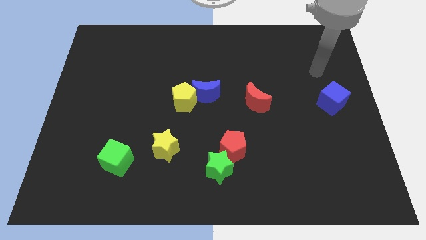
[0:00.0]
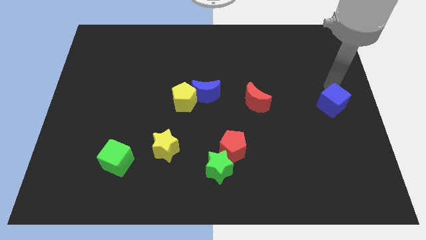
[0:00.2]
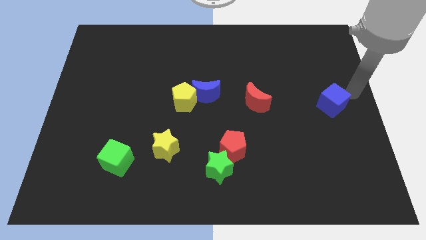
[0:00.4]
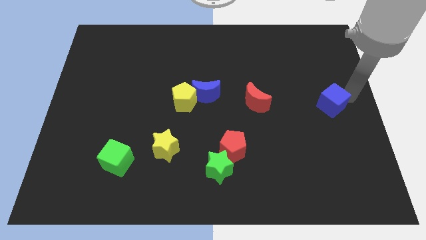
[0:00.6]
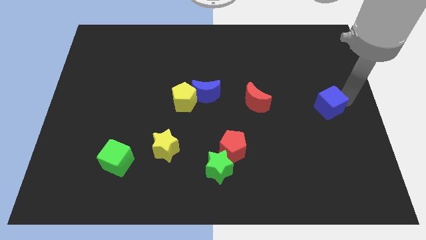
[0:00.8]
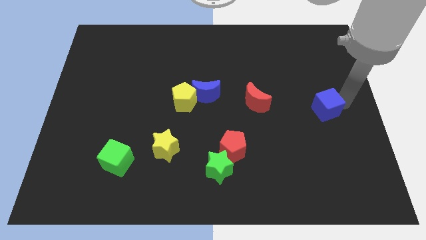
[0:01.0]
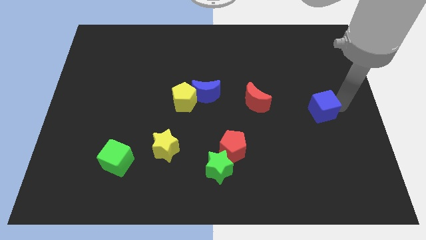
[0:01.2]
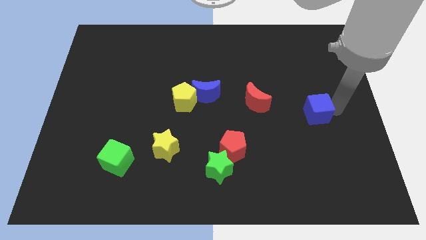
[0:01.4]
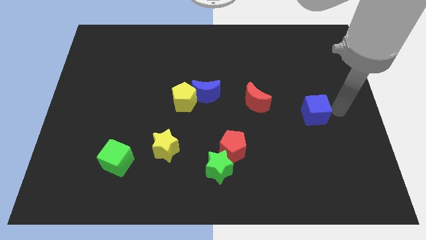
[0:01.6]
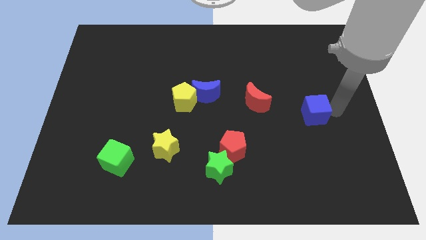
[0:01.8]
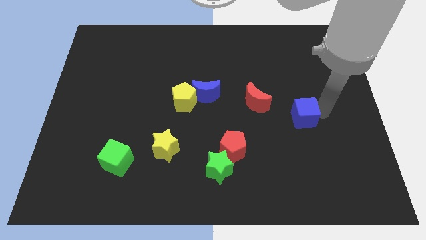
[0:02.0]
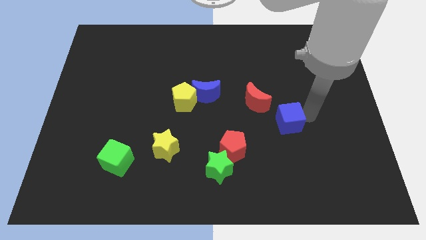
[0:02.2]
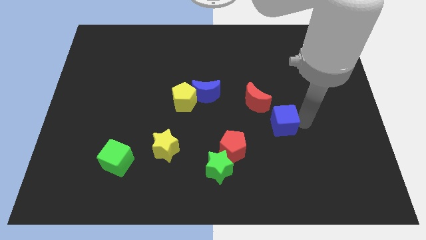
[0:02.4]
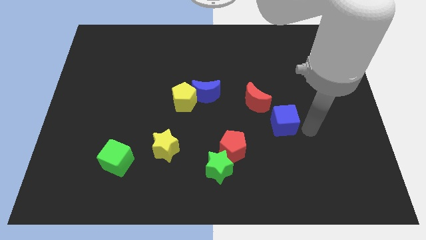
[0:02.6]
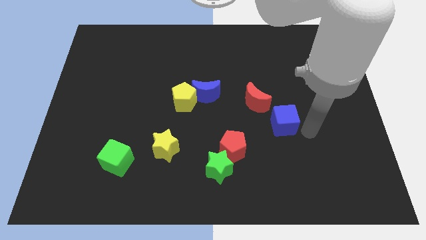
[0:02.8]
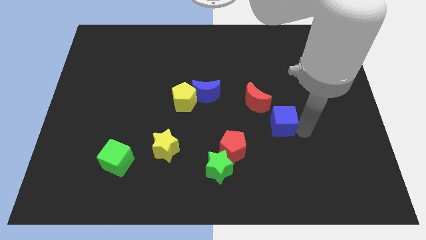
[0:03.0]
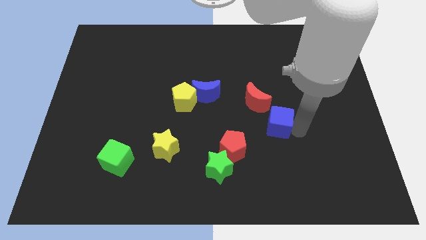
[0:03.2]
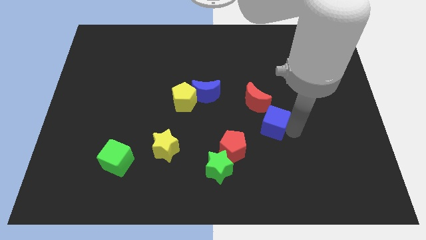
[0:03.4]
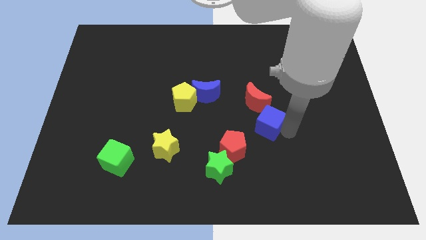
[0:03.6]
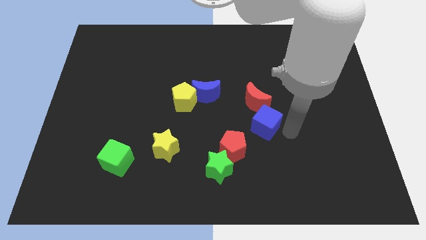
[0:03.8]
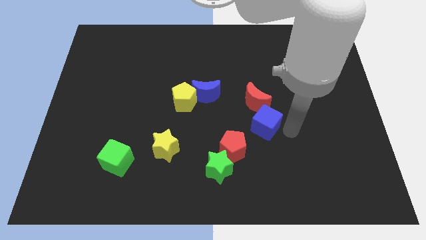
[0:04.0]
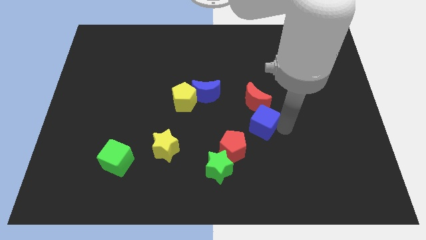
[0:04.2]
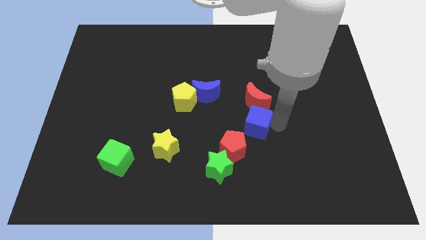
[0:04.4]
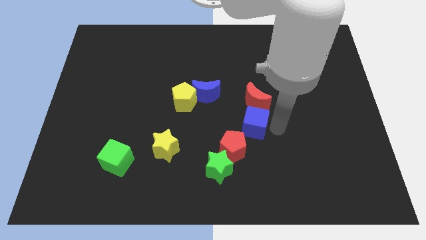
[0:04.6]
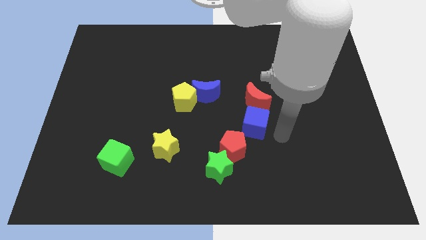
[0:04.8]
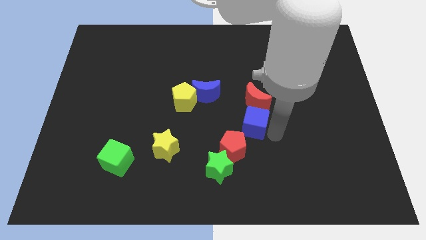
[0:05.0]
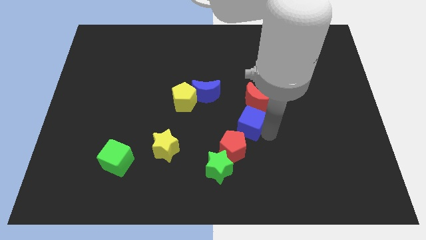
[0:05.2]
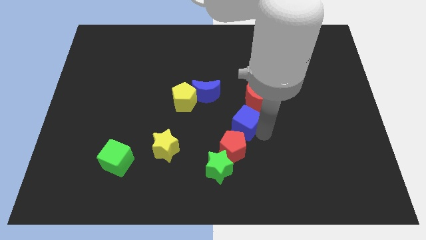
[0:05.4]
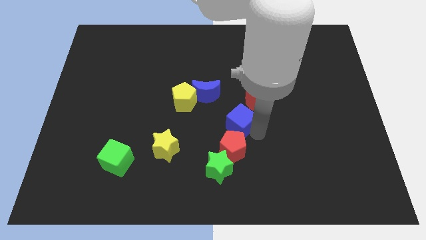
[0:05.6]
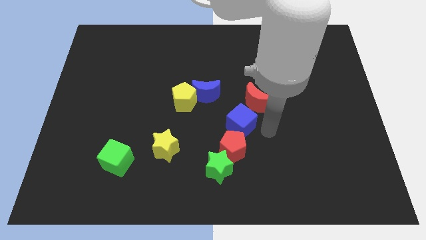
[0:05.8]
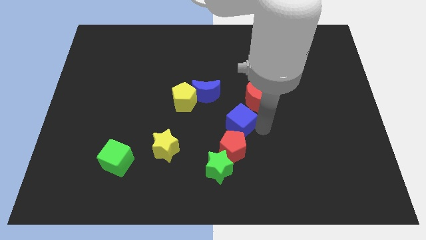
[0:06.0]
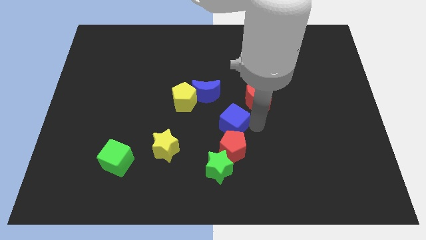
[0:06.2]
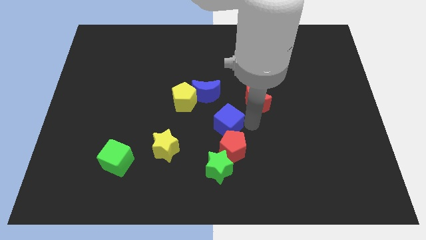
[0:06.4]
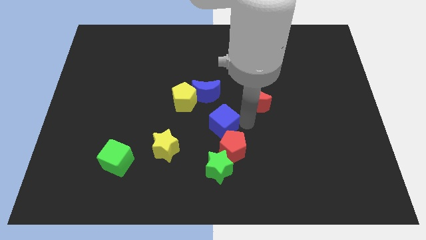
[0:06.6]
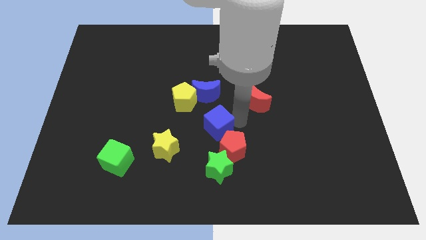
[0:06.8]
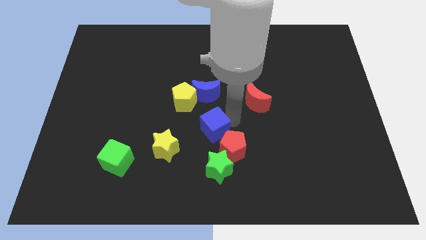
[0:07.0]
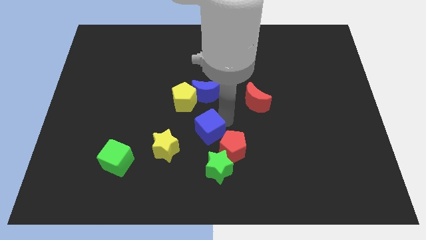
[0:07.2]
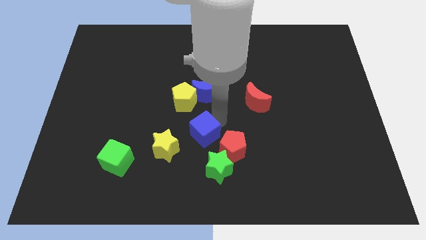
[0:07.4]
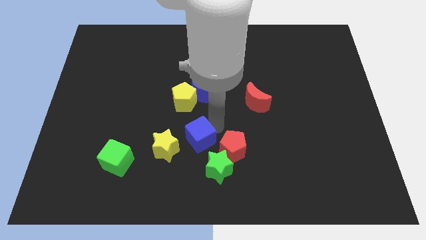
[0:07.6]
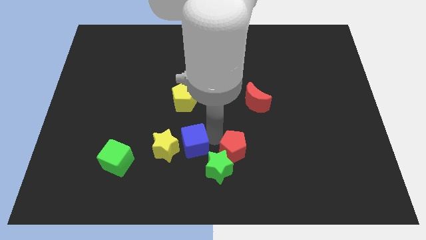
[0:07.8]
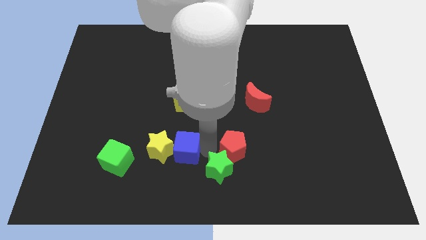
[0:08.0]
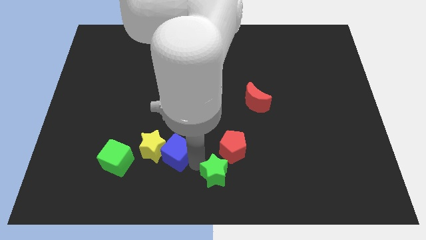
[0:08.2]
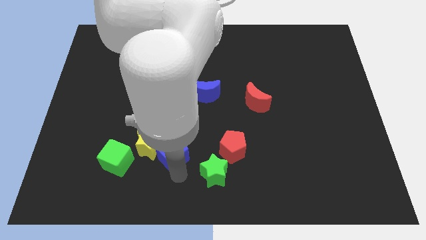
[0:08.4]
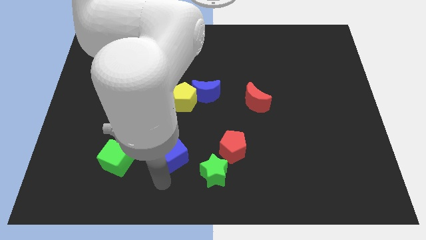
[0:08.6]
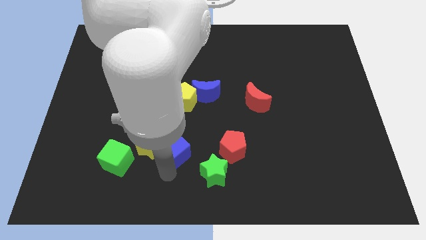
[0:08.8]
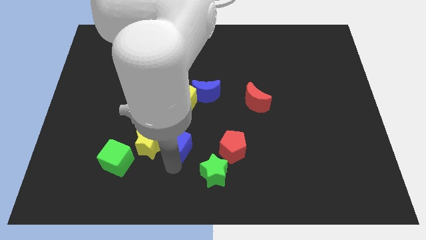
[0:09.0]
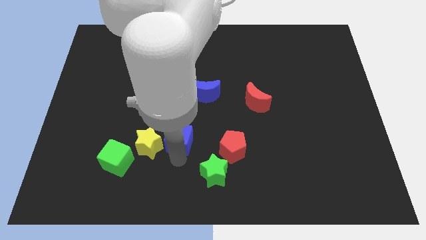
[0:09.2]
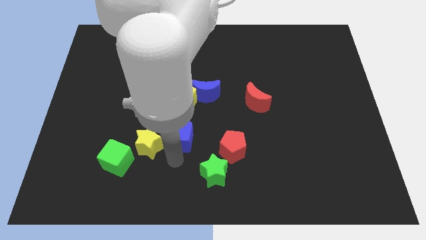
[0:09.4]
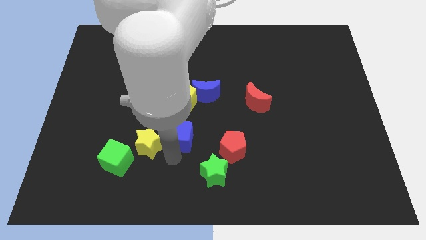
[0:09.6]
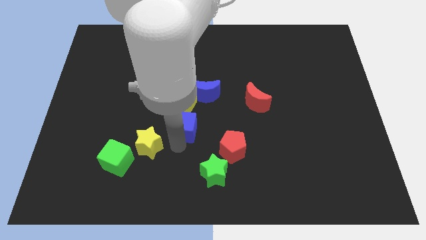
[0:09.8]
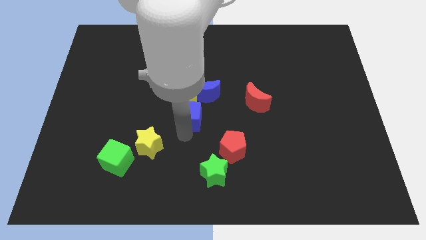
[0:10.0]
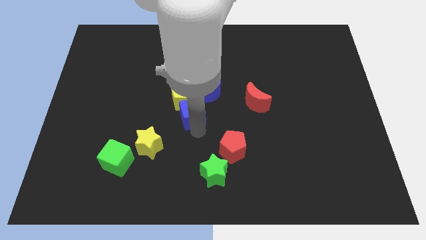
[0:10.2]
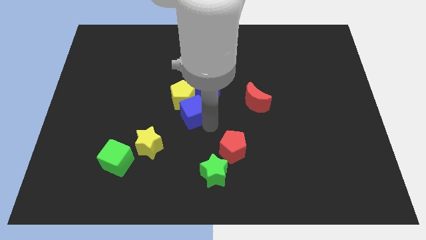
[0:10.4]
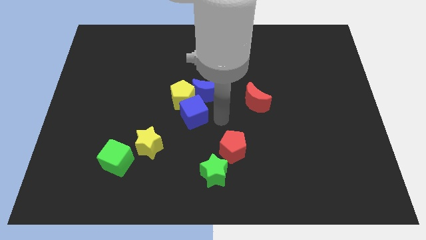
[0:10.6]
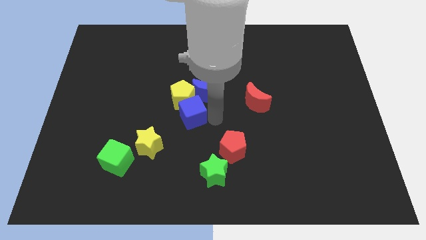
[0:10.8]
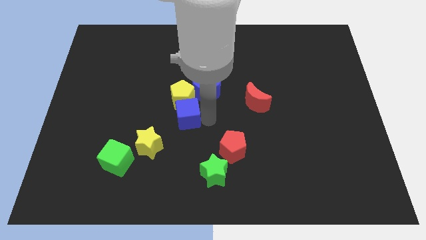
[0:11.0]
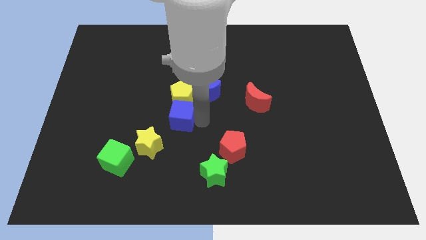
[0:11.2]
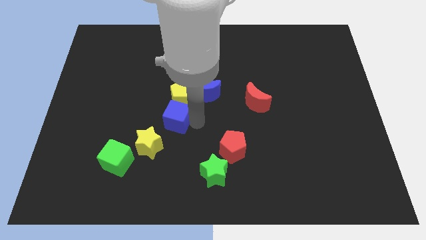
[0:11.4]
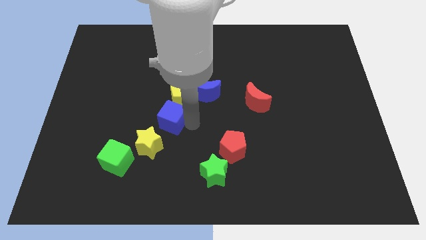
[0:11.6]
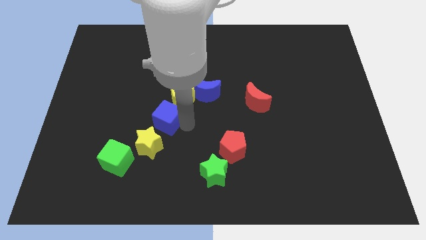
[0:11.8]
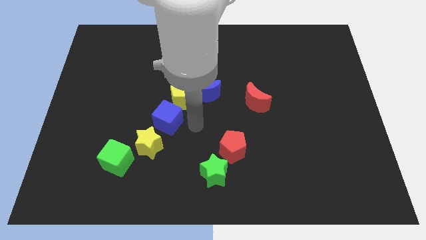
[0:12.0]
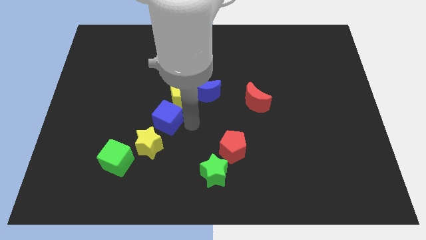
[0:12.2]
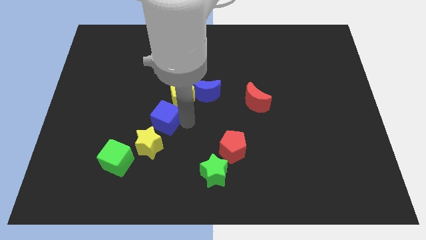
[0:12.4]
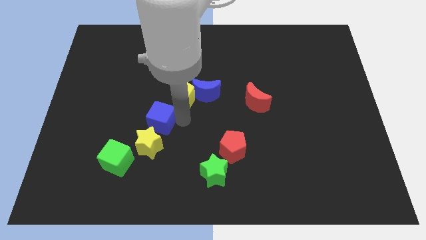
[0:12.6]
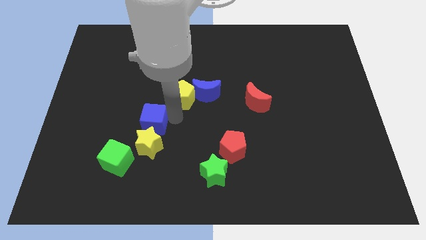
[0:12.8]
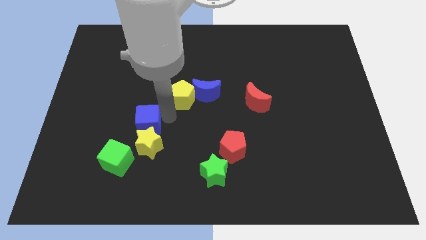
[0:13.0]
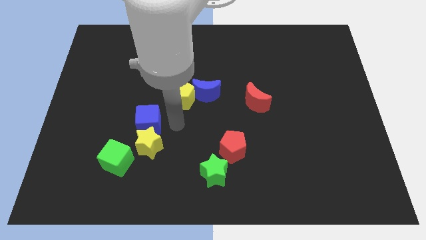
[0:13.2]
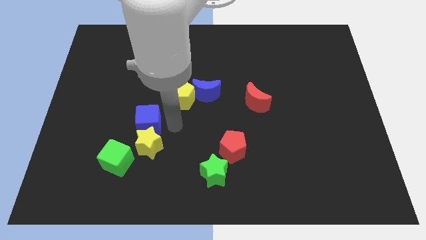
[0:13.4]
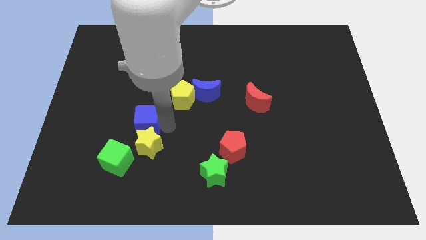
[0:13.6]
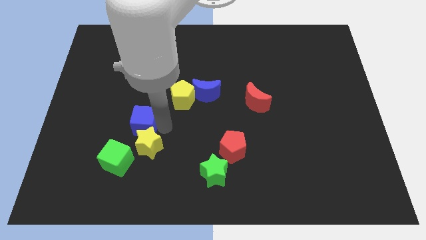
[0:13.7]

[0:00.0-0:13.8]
push the blue cube to the top of the green cube
